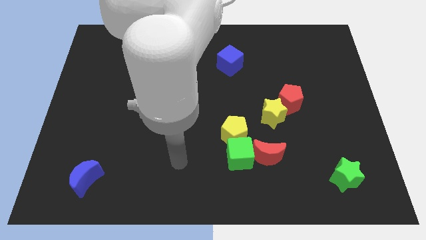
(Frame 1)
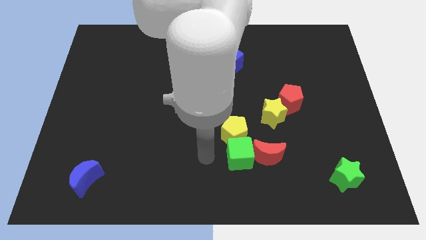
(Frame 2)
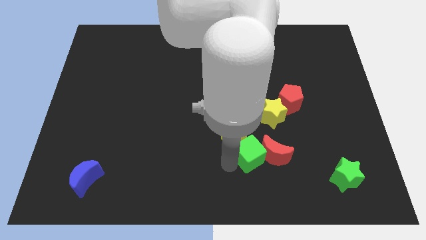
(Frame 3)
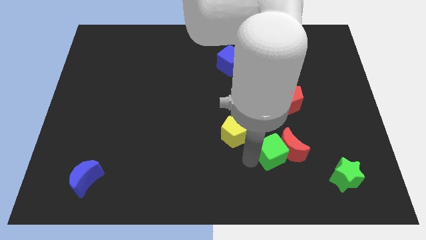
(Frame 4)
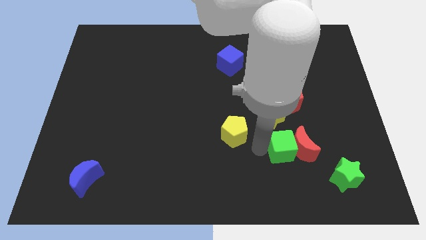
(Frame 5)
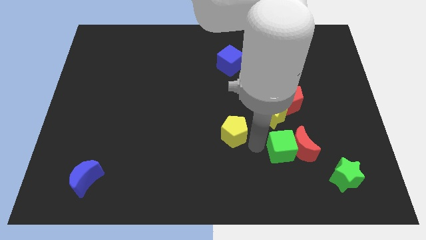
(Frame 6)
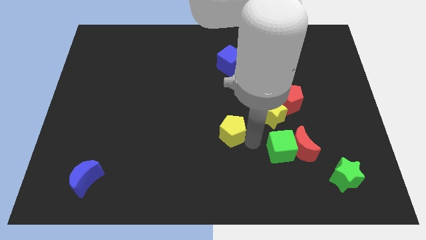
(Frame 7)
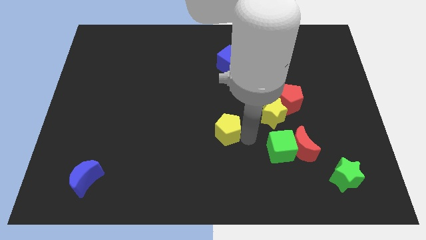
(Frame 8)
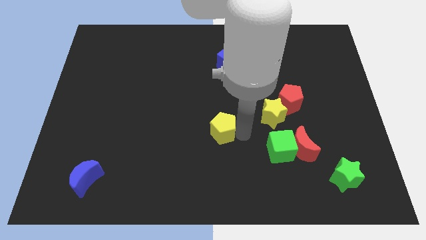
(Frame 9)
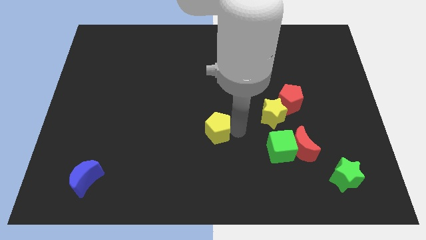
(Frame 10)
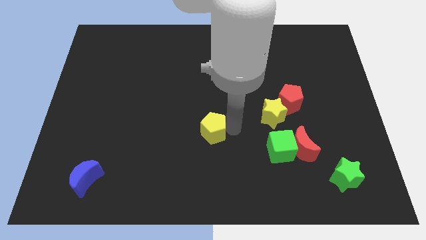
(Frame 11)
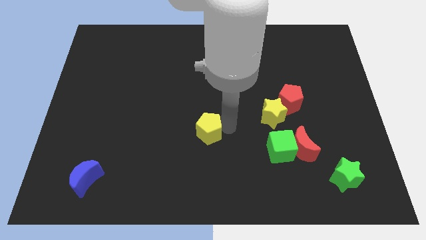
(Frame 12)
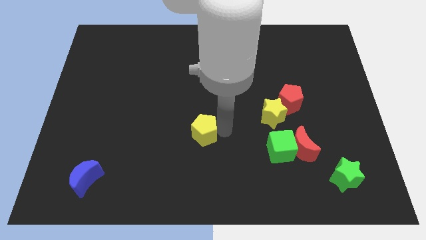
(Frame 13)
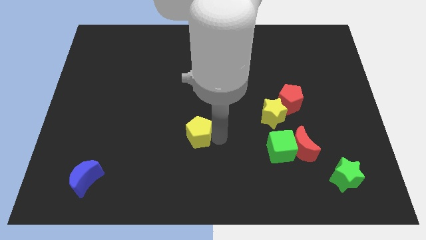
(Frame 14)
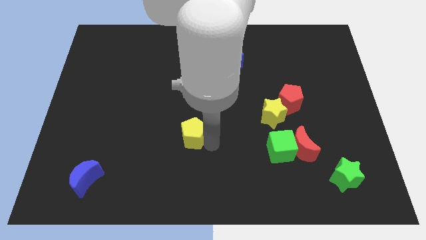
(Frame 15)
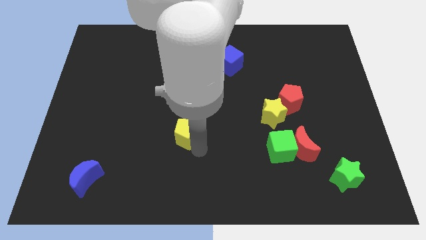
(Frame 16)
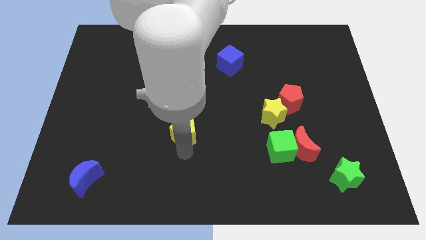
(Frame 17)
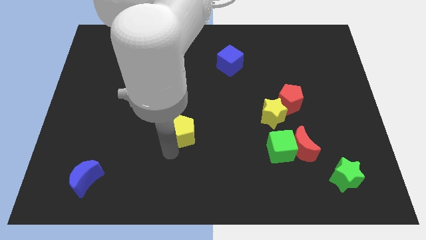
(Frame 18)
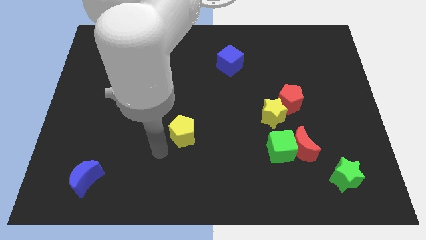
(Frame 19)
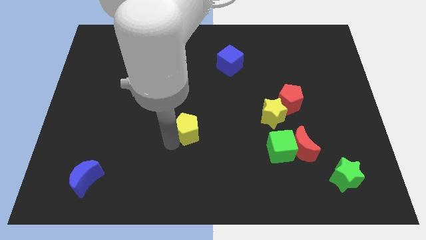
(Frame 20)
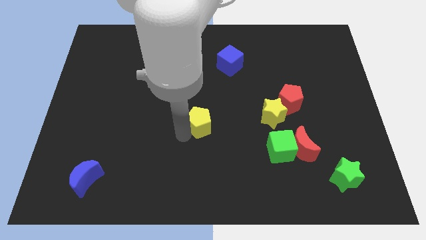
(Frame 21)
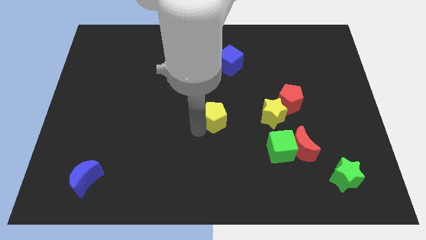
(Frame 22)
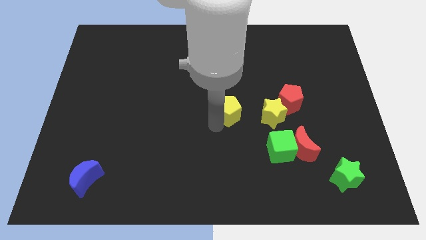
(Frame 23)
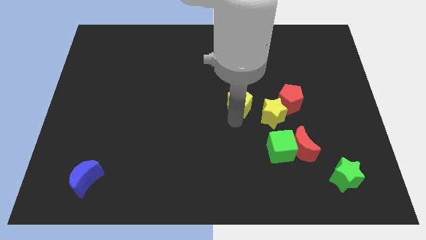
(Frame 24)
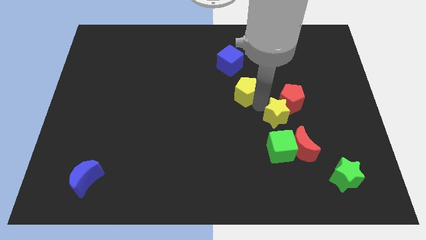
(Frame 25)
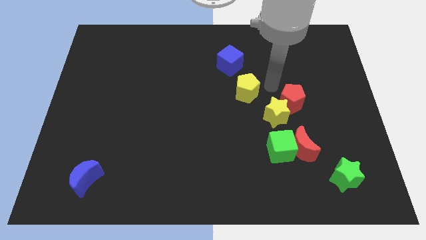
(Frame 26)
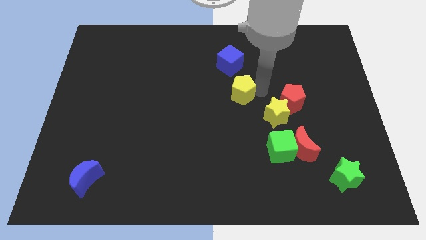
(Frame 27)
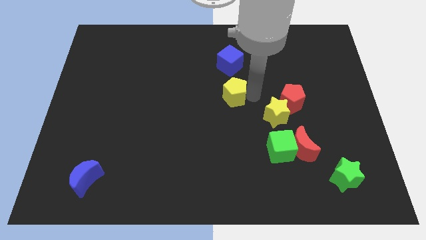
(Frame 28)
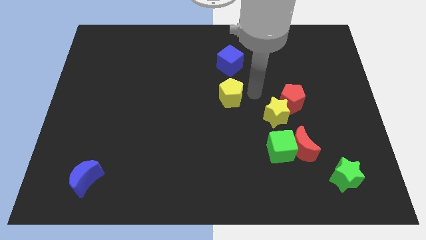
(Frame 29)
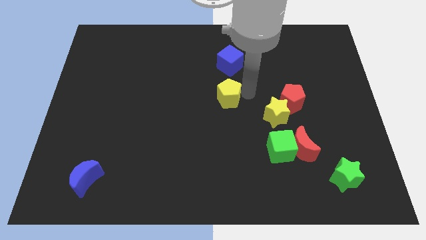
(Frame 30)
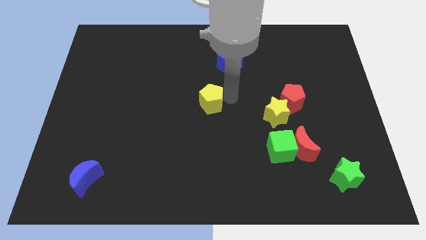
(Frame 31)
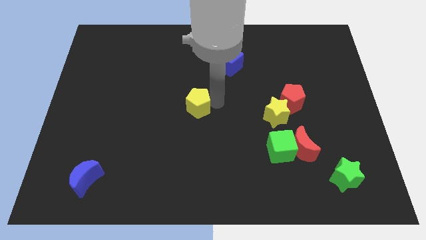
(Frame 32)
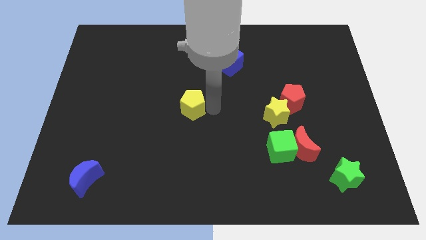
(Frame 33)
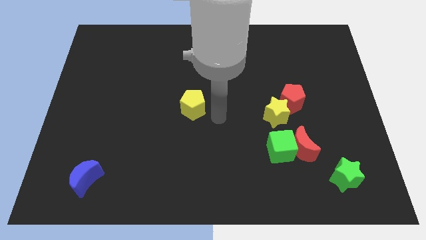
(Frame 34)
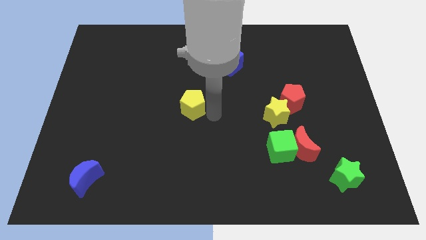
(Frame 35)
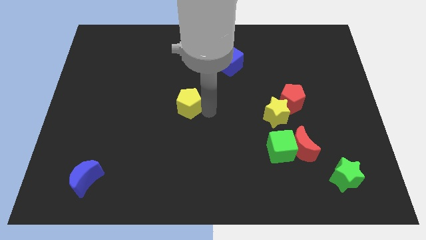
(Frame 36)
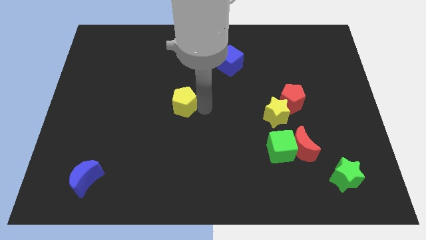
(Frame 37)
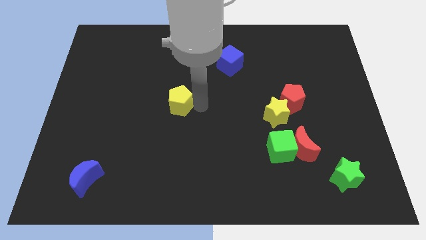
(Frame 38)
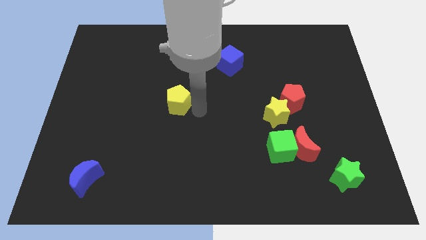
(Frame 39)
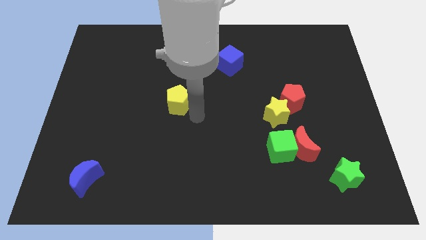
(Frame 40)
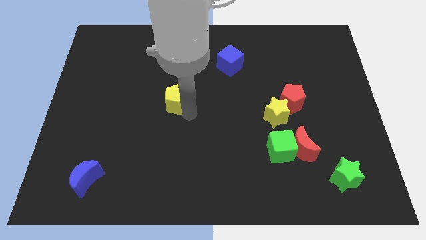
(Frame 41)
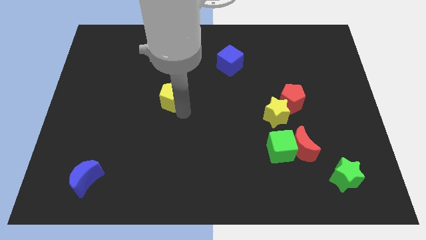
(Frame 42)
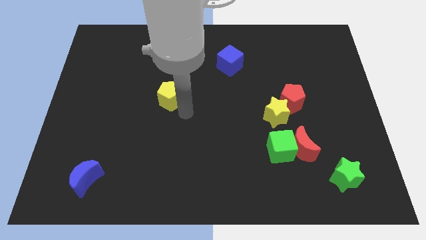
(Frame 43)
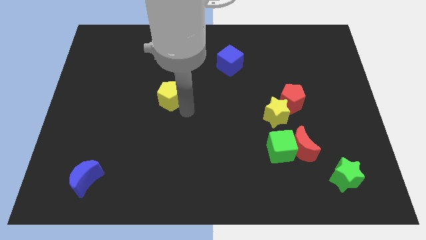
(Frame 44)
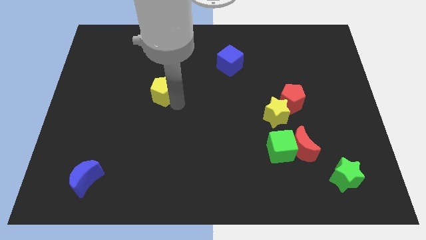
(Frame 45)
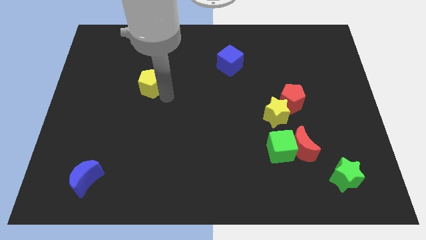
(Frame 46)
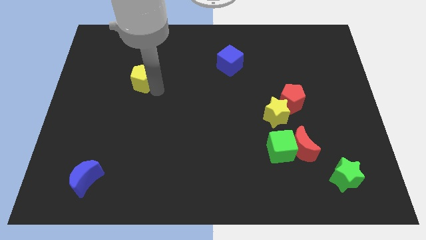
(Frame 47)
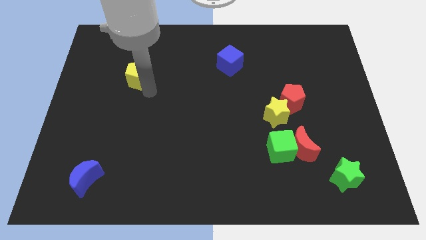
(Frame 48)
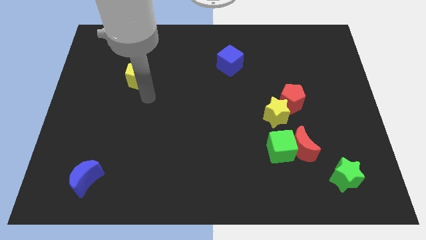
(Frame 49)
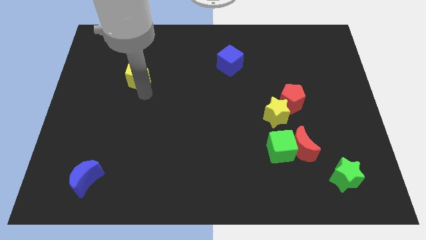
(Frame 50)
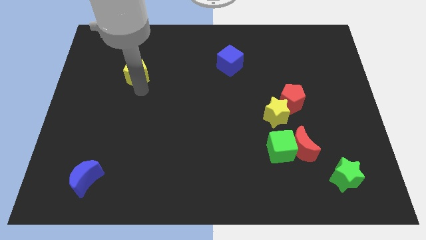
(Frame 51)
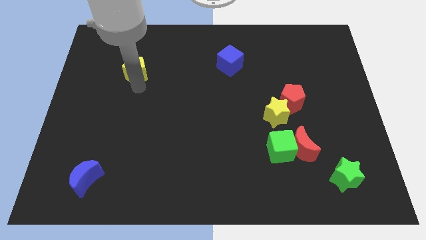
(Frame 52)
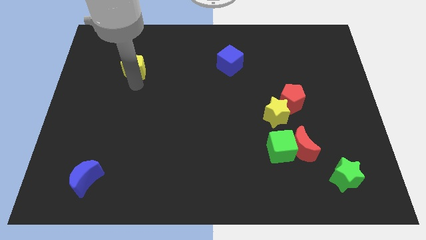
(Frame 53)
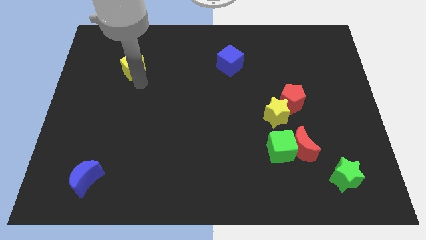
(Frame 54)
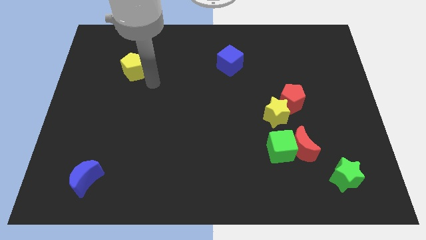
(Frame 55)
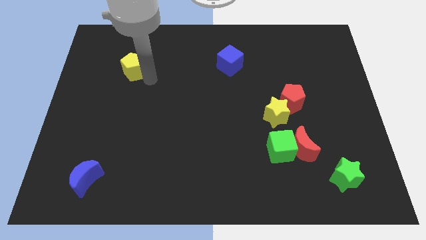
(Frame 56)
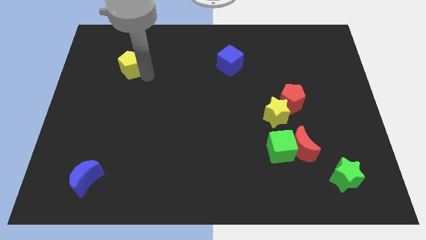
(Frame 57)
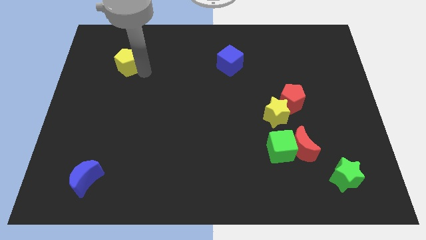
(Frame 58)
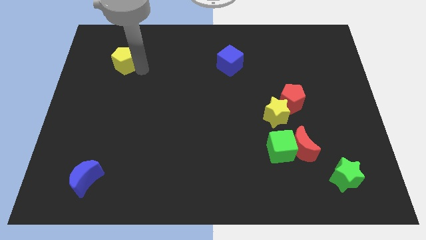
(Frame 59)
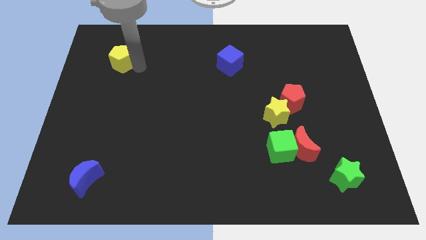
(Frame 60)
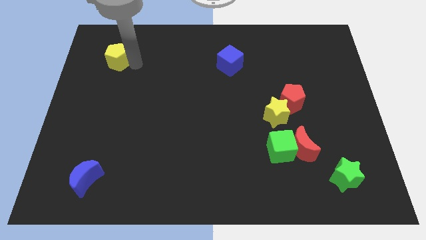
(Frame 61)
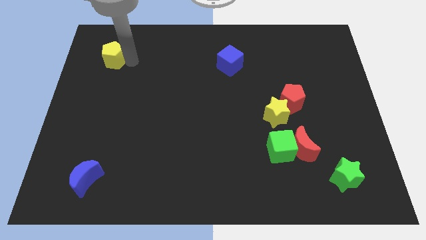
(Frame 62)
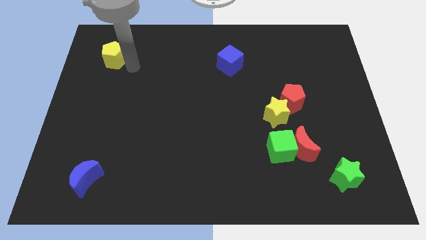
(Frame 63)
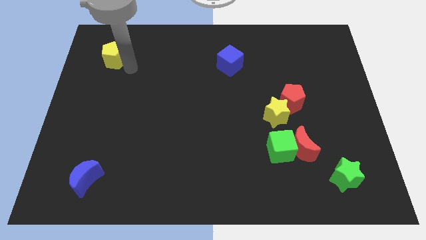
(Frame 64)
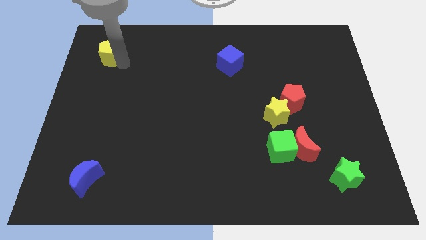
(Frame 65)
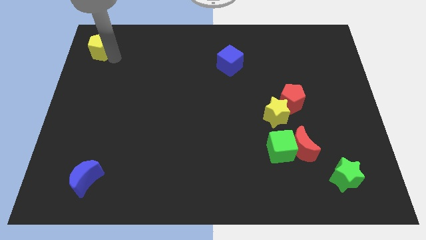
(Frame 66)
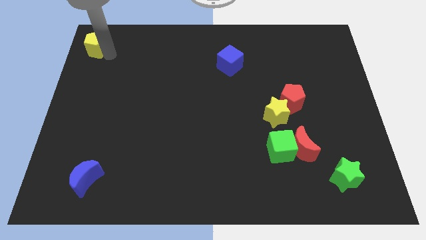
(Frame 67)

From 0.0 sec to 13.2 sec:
slide the yellow pentagon to the top left of the board
